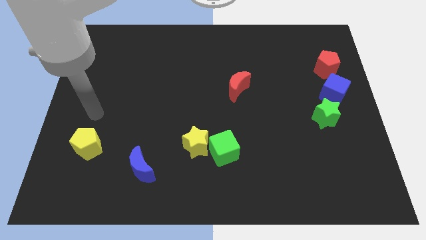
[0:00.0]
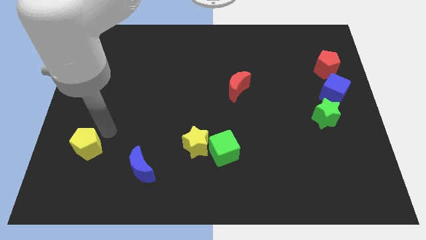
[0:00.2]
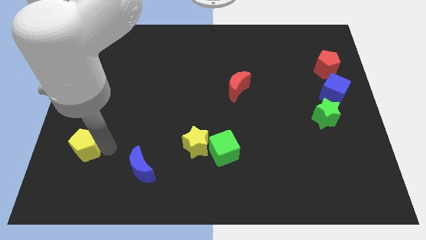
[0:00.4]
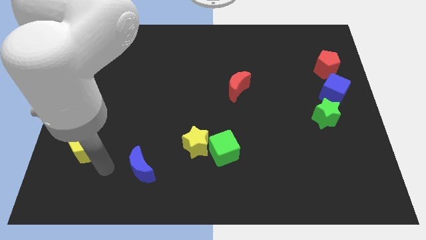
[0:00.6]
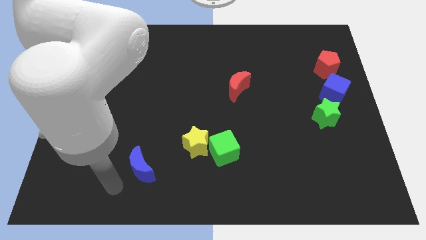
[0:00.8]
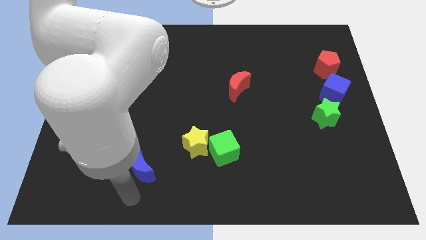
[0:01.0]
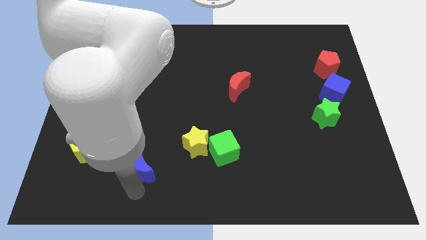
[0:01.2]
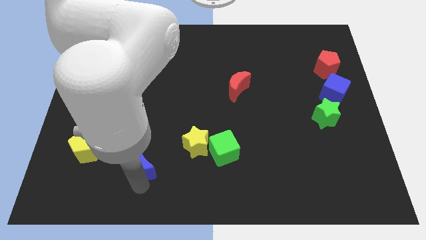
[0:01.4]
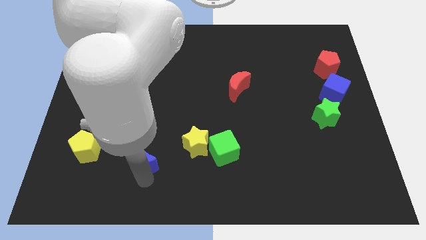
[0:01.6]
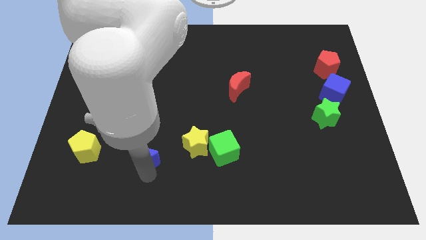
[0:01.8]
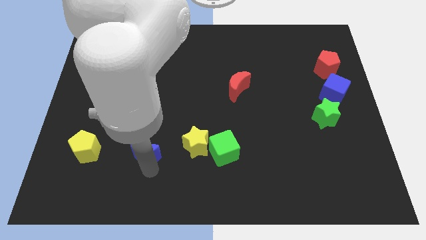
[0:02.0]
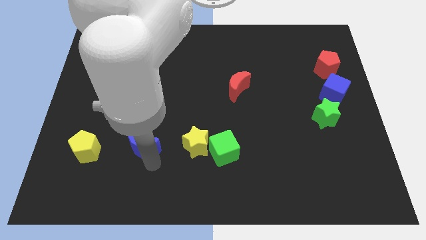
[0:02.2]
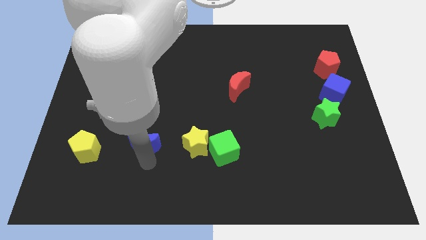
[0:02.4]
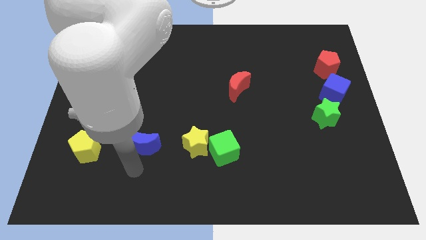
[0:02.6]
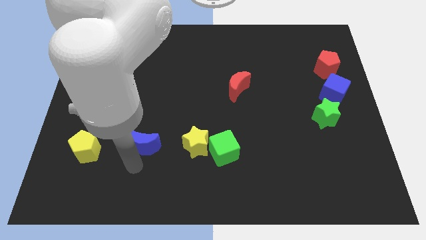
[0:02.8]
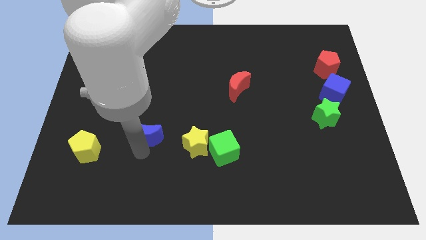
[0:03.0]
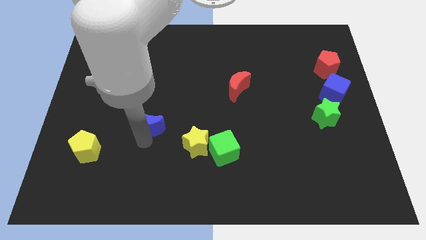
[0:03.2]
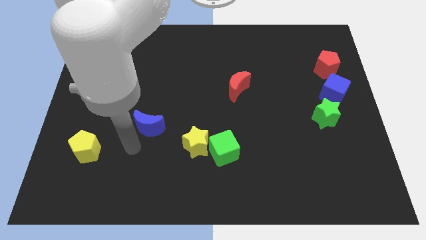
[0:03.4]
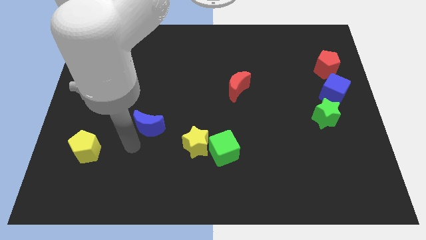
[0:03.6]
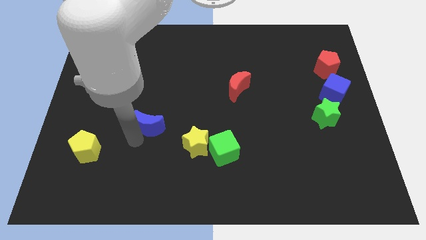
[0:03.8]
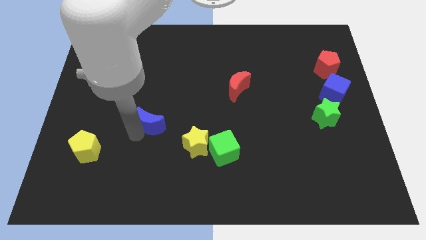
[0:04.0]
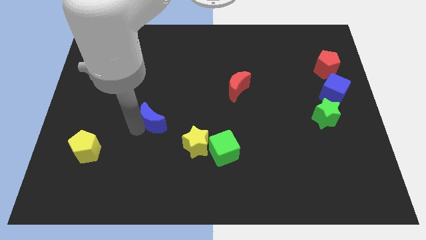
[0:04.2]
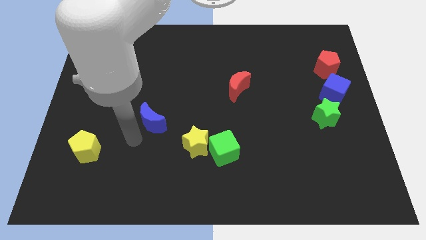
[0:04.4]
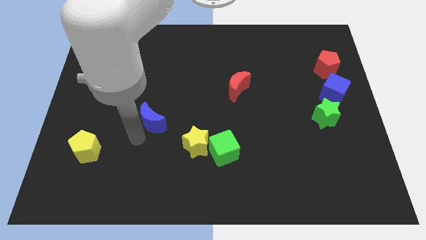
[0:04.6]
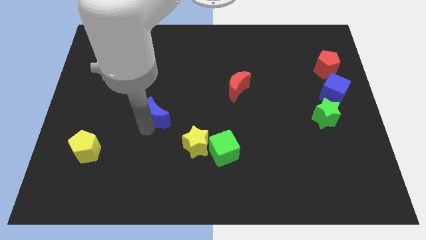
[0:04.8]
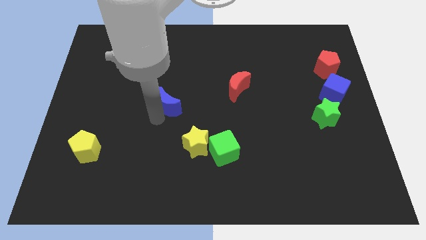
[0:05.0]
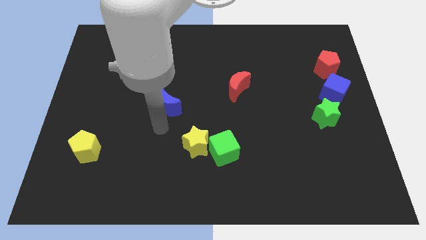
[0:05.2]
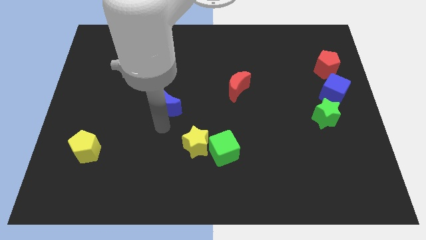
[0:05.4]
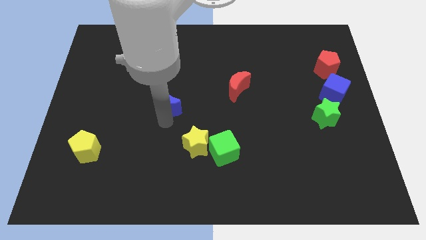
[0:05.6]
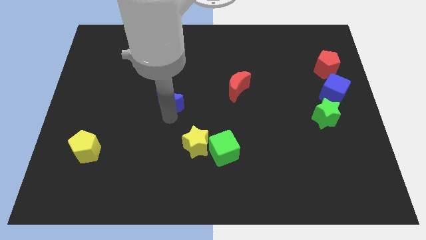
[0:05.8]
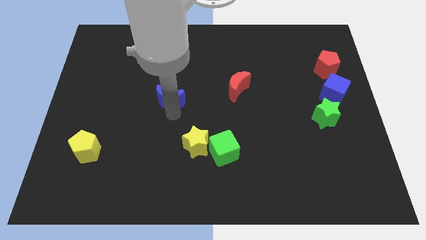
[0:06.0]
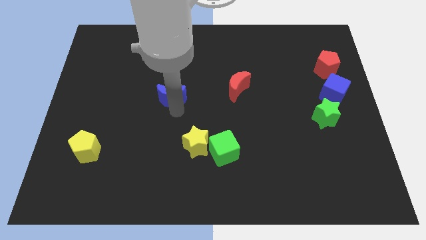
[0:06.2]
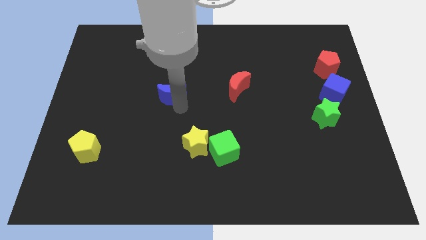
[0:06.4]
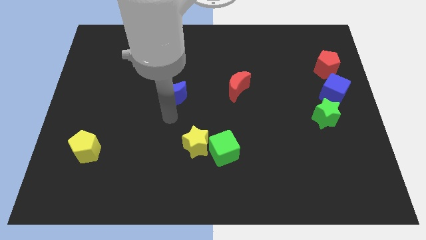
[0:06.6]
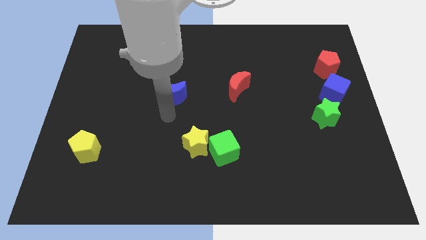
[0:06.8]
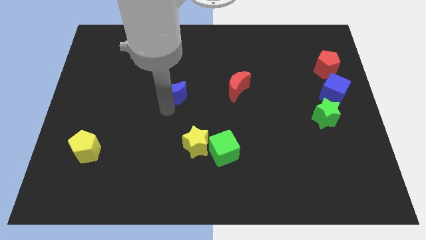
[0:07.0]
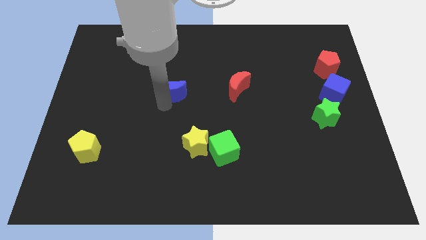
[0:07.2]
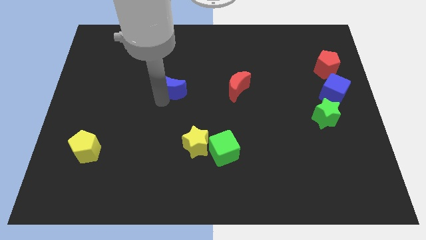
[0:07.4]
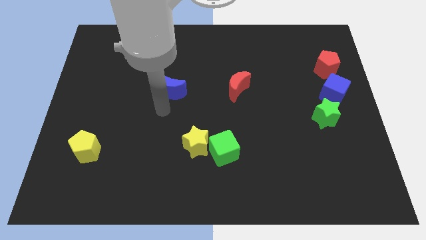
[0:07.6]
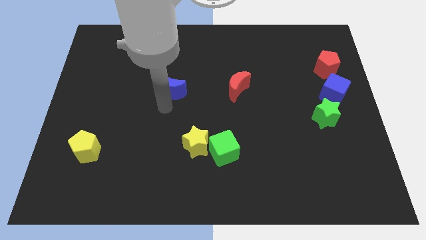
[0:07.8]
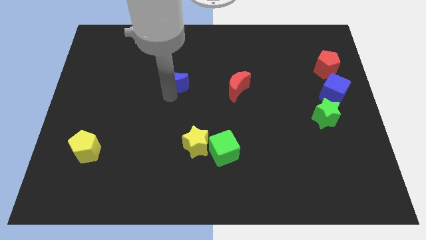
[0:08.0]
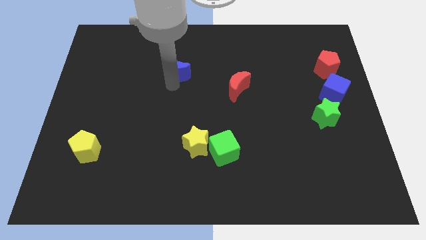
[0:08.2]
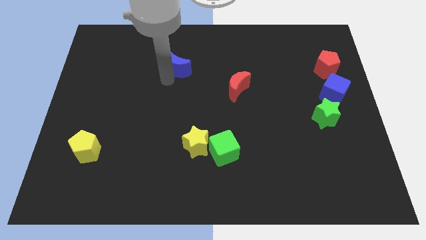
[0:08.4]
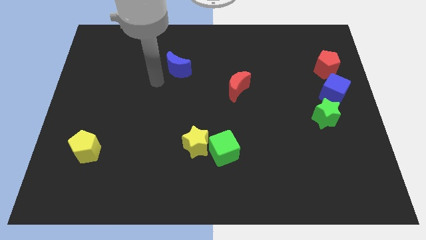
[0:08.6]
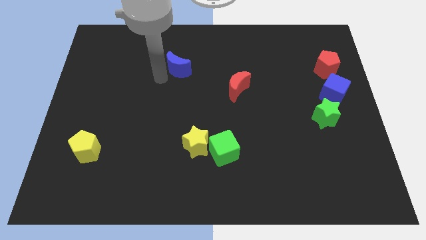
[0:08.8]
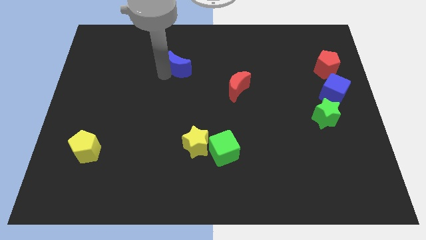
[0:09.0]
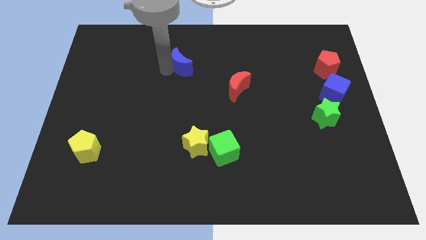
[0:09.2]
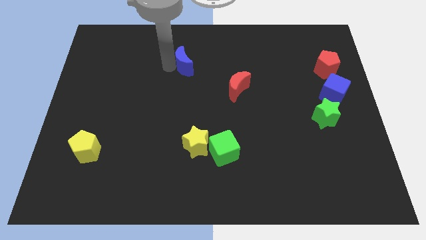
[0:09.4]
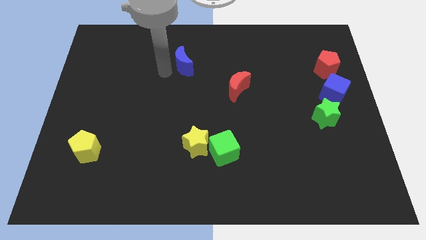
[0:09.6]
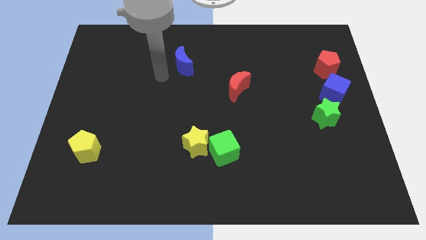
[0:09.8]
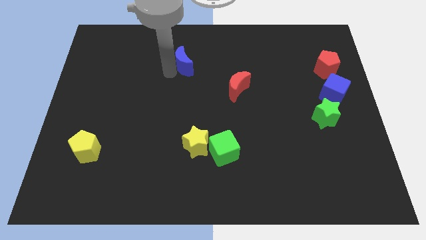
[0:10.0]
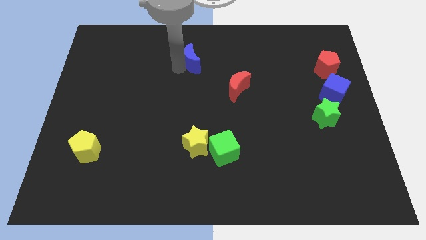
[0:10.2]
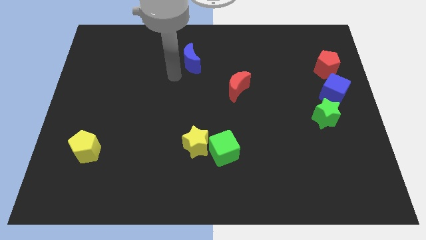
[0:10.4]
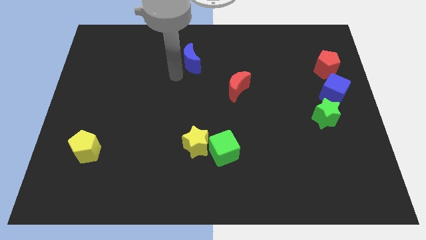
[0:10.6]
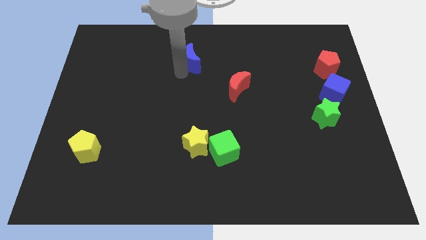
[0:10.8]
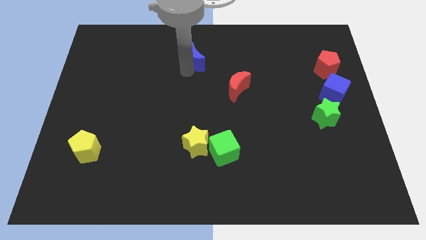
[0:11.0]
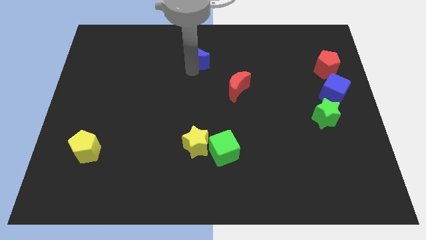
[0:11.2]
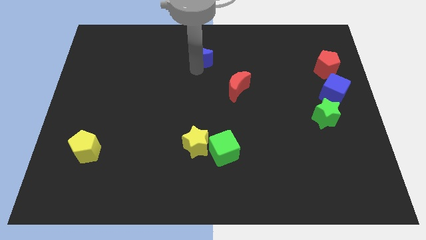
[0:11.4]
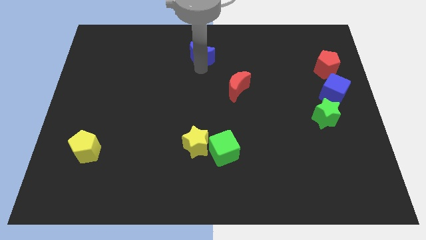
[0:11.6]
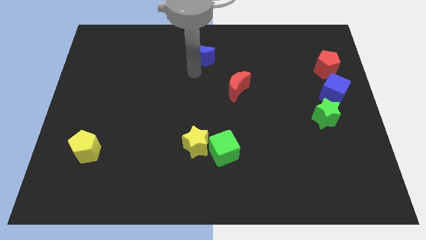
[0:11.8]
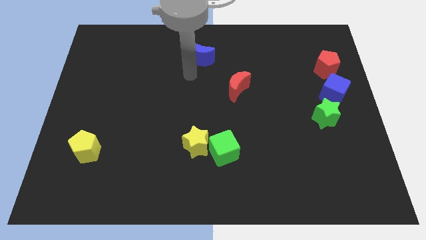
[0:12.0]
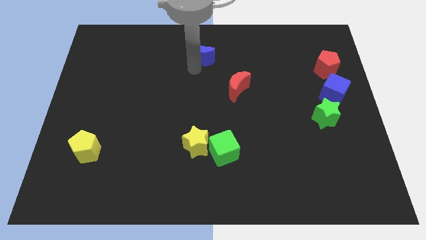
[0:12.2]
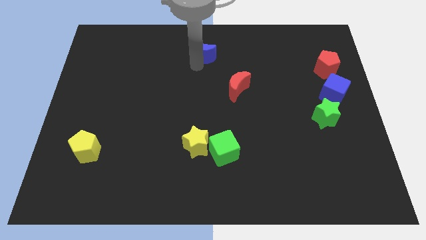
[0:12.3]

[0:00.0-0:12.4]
put the blue moon to the top
